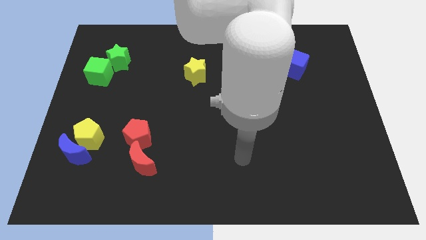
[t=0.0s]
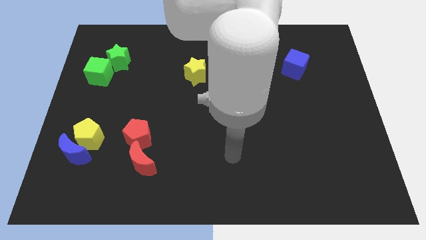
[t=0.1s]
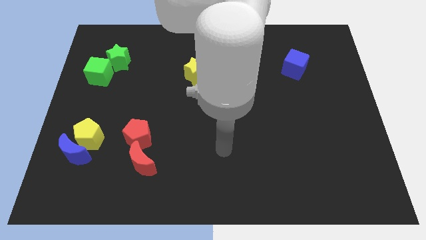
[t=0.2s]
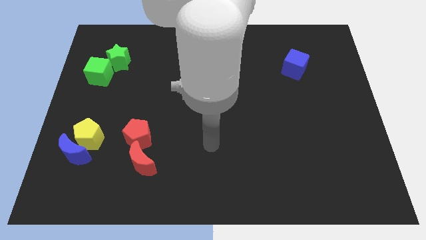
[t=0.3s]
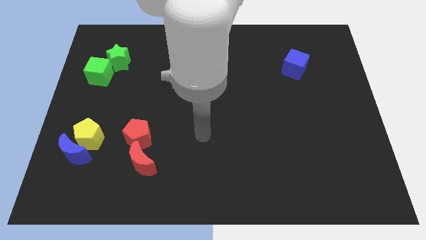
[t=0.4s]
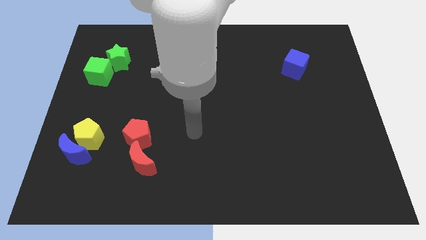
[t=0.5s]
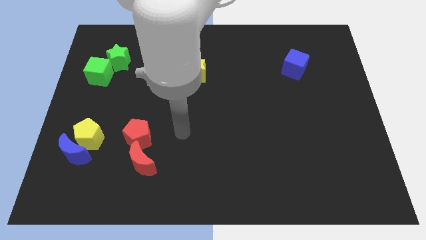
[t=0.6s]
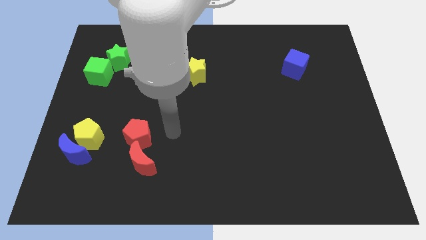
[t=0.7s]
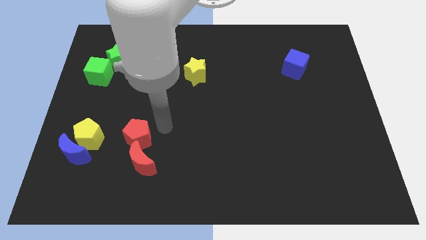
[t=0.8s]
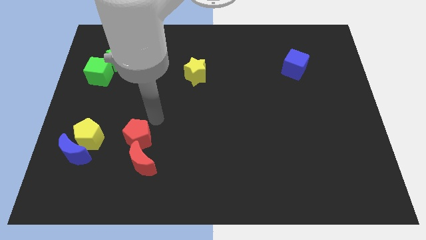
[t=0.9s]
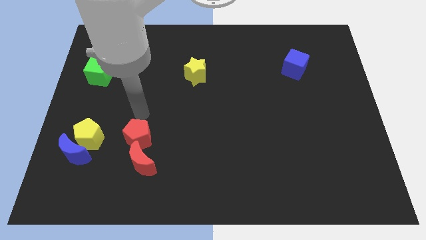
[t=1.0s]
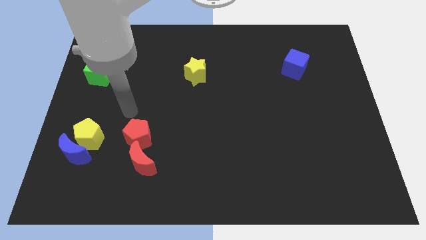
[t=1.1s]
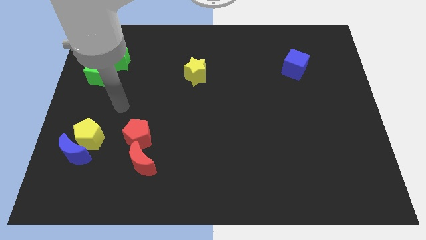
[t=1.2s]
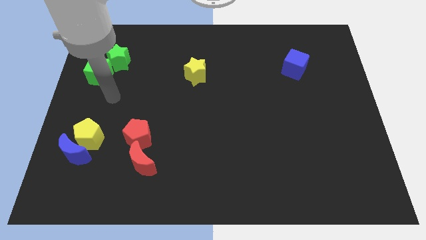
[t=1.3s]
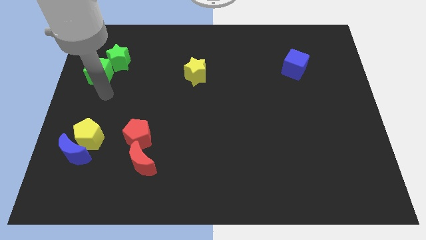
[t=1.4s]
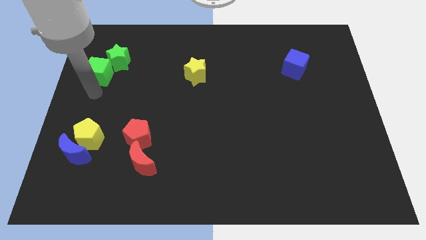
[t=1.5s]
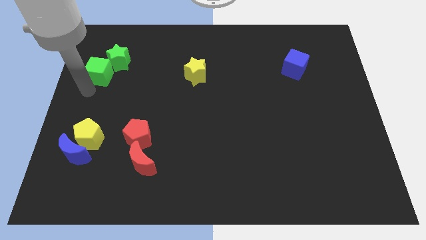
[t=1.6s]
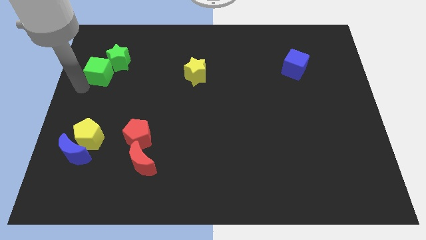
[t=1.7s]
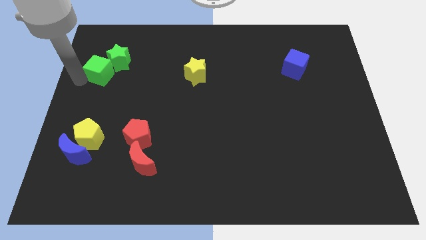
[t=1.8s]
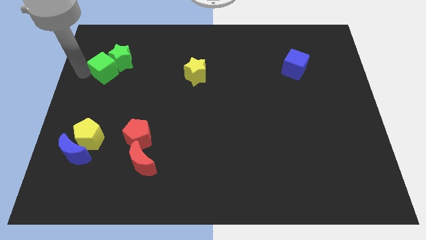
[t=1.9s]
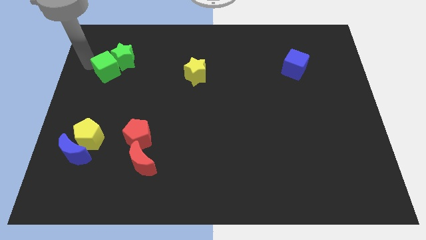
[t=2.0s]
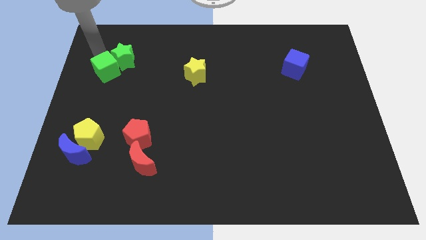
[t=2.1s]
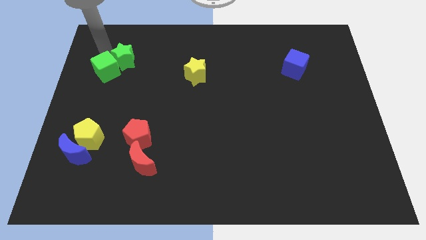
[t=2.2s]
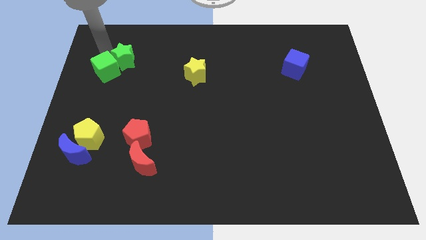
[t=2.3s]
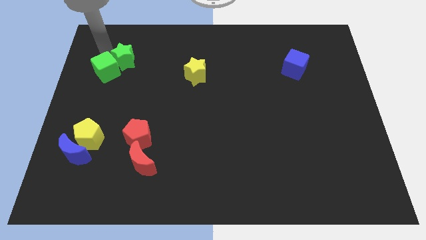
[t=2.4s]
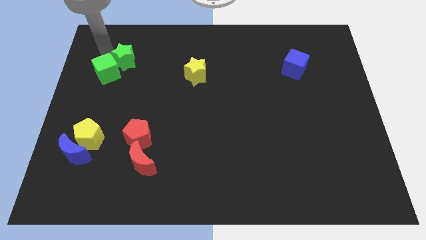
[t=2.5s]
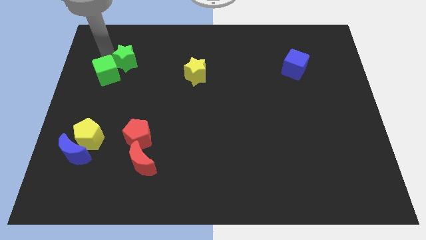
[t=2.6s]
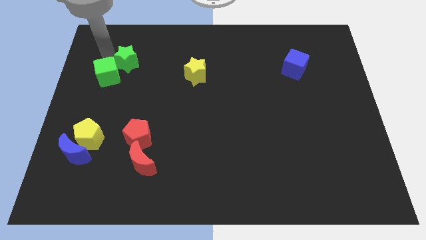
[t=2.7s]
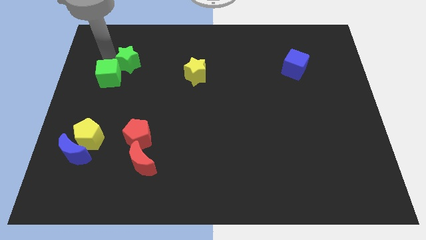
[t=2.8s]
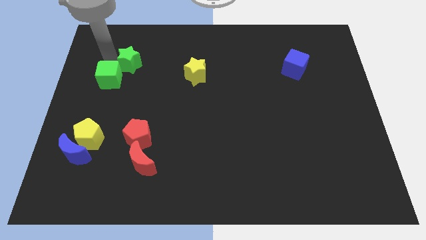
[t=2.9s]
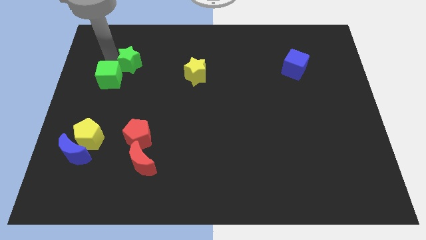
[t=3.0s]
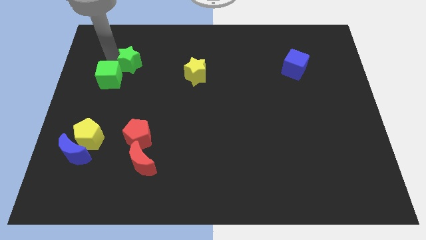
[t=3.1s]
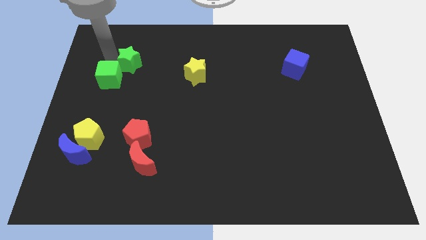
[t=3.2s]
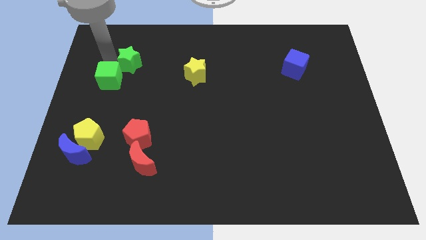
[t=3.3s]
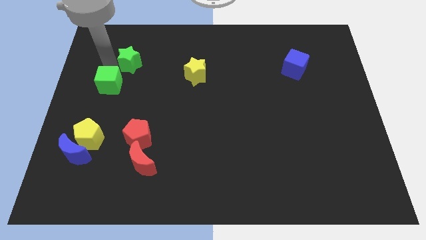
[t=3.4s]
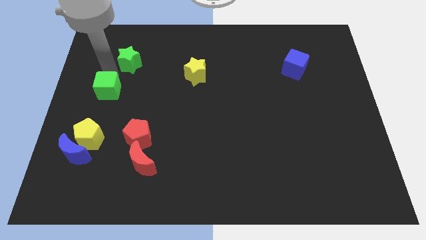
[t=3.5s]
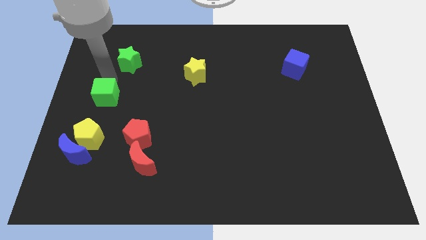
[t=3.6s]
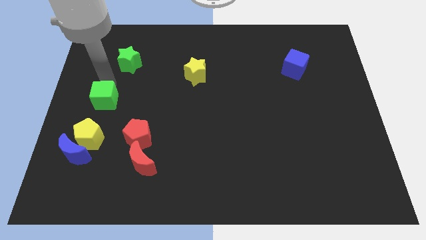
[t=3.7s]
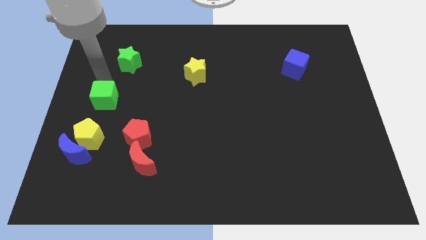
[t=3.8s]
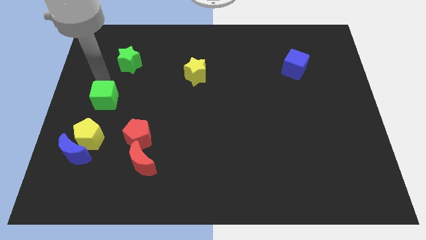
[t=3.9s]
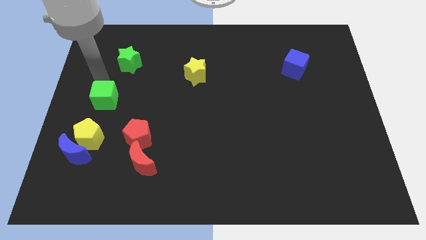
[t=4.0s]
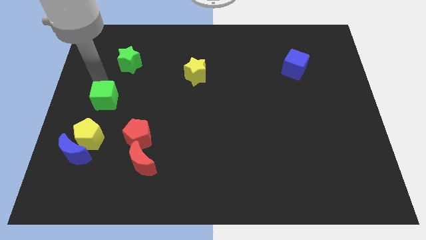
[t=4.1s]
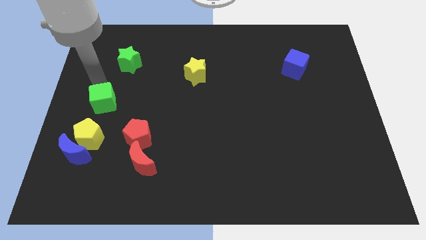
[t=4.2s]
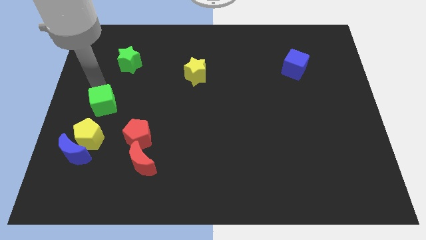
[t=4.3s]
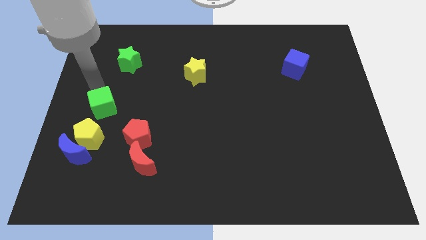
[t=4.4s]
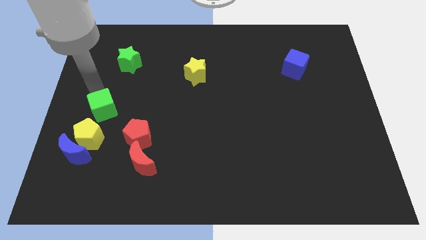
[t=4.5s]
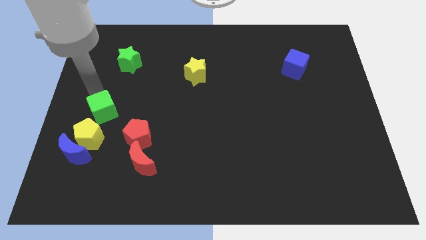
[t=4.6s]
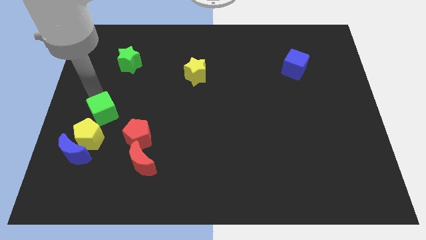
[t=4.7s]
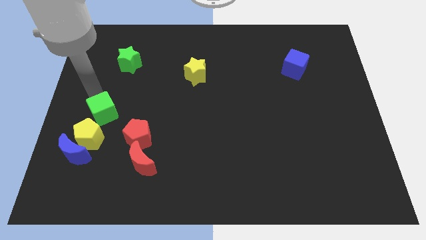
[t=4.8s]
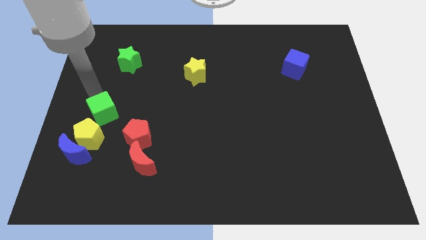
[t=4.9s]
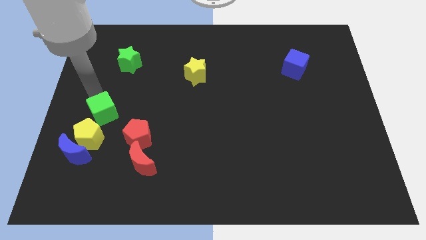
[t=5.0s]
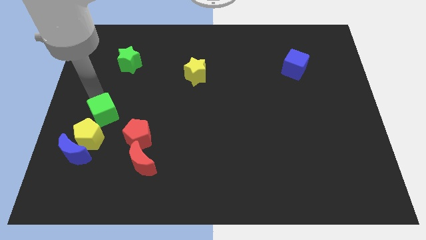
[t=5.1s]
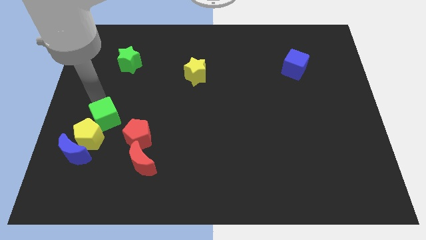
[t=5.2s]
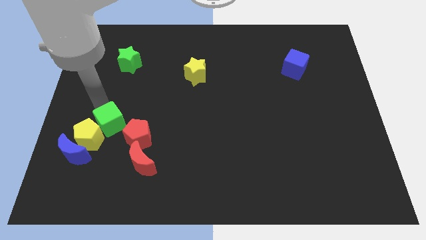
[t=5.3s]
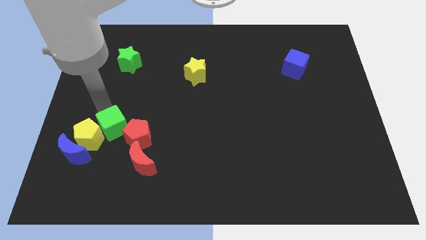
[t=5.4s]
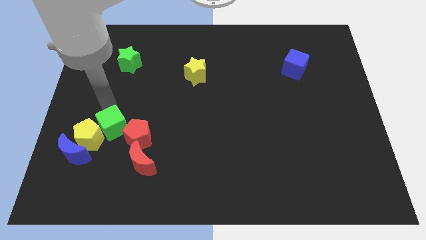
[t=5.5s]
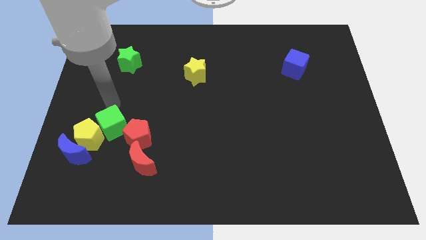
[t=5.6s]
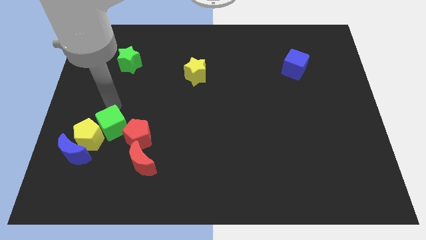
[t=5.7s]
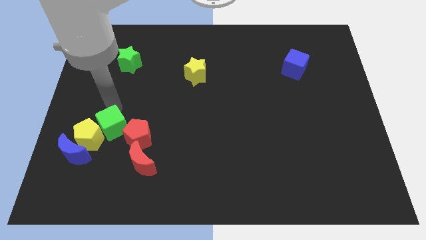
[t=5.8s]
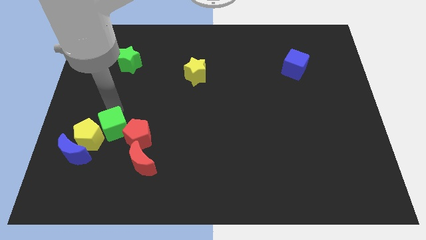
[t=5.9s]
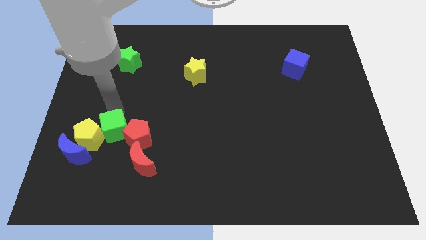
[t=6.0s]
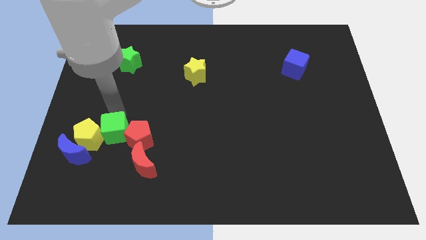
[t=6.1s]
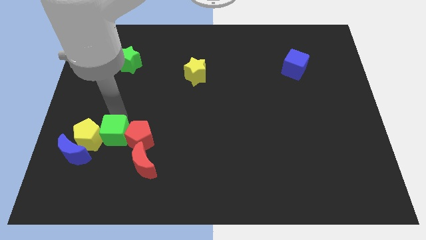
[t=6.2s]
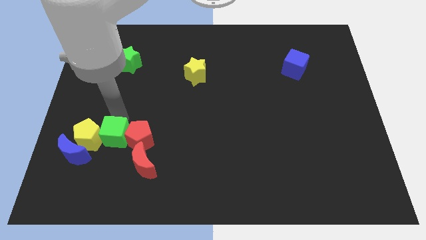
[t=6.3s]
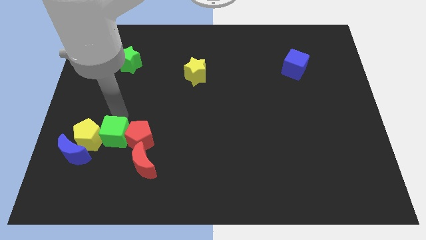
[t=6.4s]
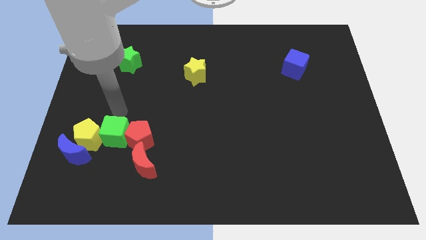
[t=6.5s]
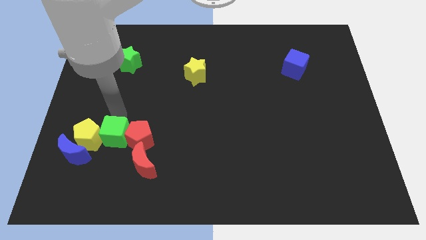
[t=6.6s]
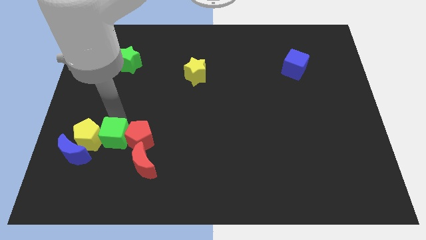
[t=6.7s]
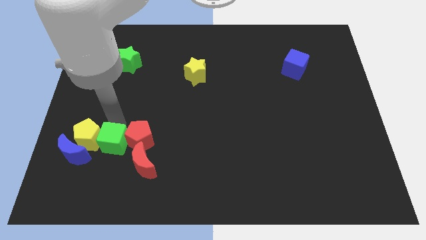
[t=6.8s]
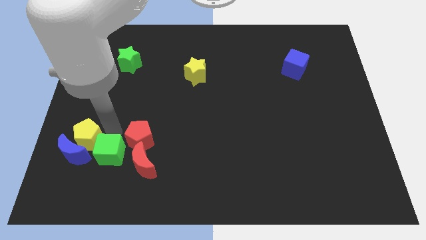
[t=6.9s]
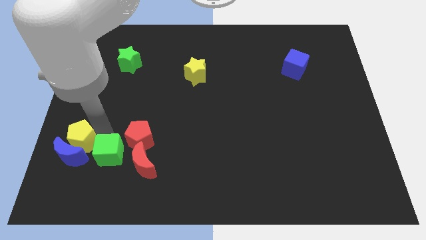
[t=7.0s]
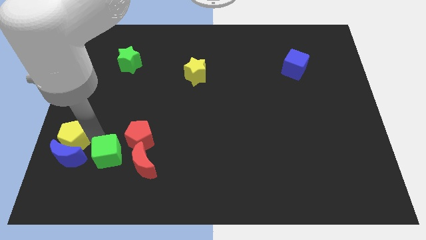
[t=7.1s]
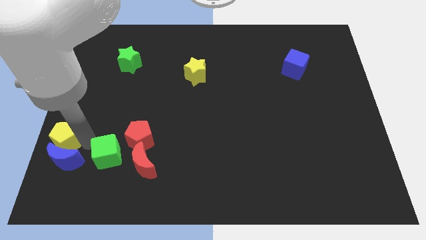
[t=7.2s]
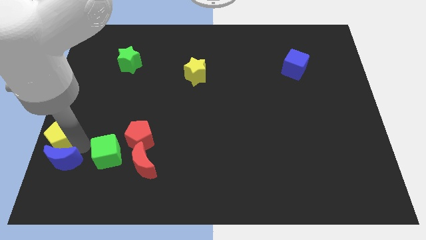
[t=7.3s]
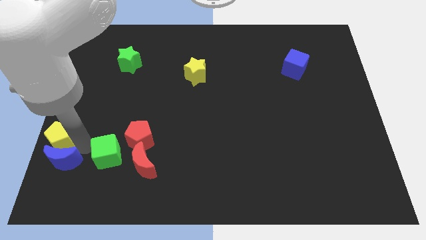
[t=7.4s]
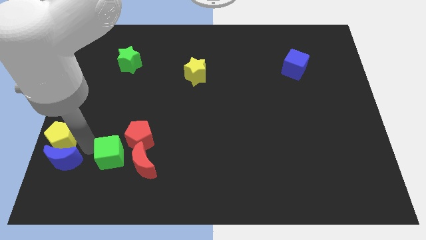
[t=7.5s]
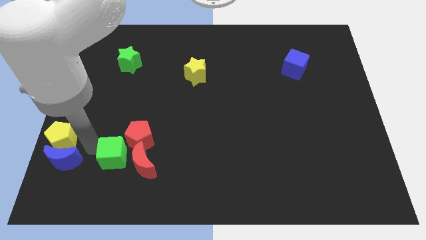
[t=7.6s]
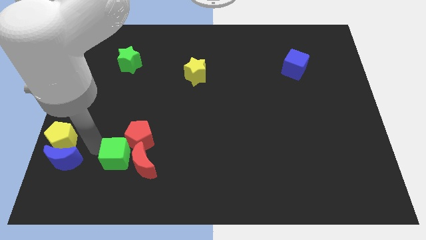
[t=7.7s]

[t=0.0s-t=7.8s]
slide the green cube next to the red moon
